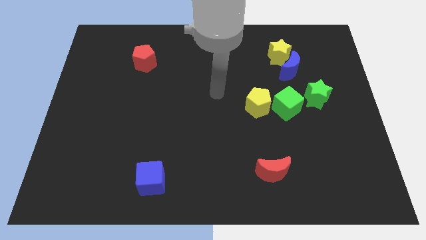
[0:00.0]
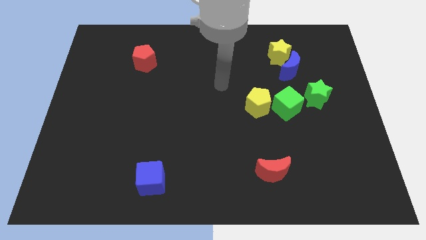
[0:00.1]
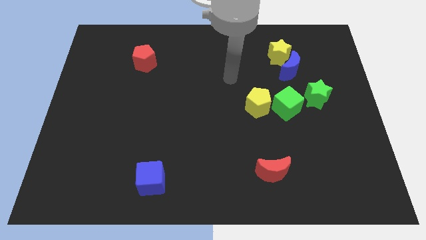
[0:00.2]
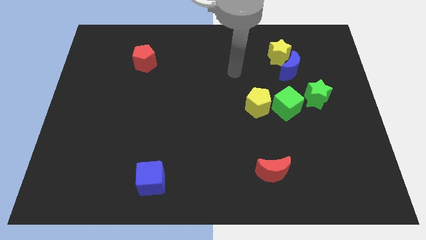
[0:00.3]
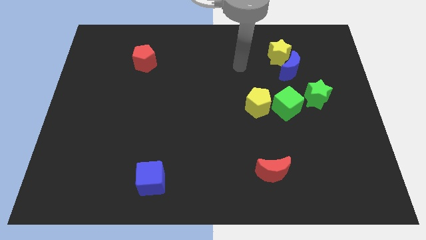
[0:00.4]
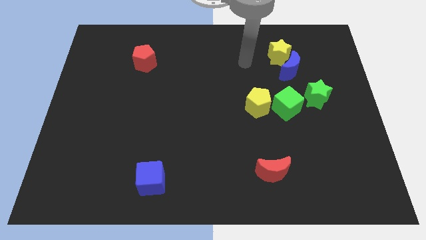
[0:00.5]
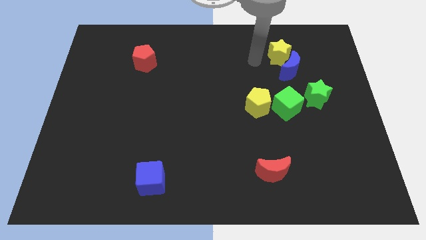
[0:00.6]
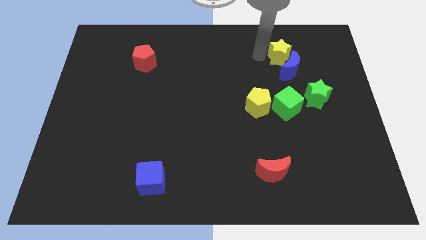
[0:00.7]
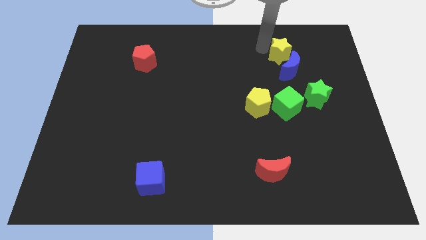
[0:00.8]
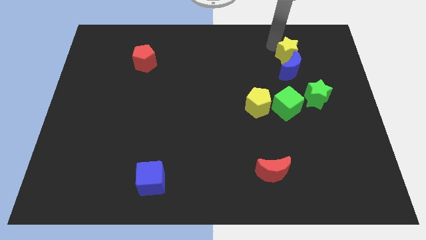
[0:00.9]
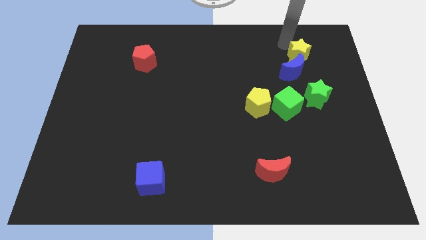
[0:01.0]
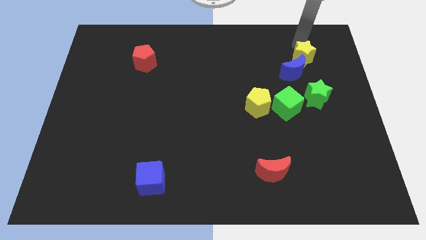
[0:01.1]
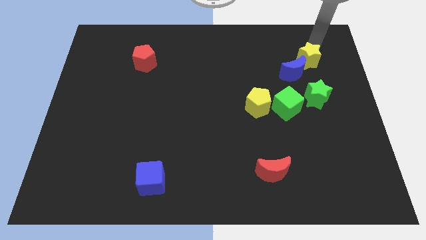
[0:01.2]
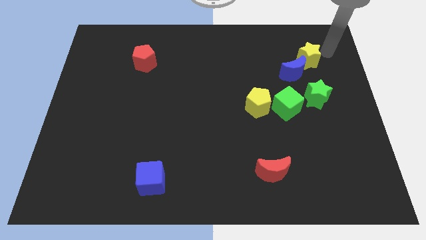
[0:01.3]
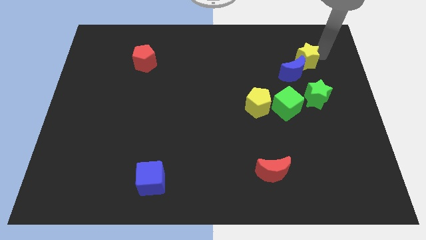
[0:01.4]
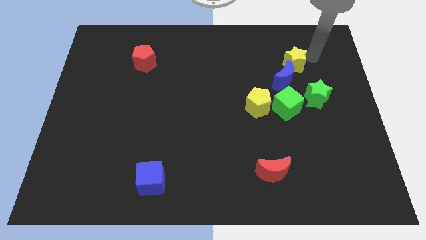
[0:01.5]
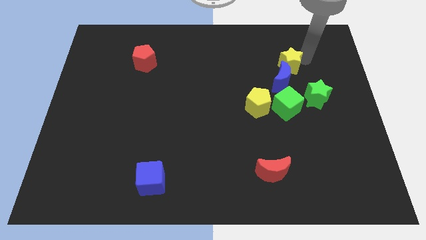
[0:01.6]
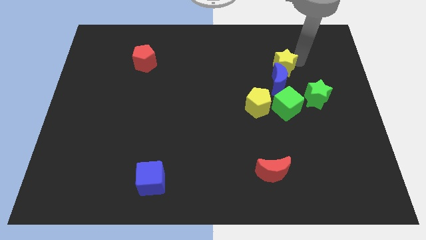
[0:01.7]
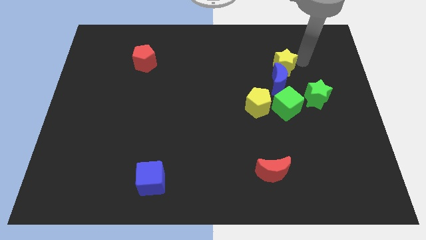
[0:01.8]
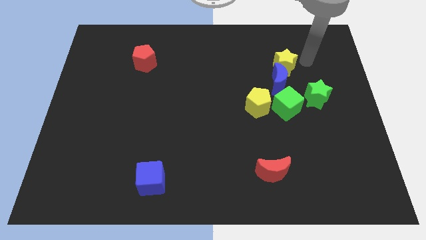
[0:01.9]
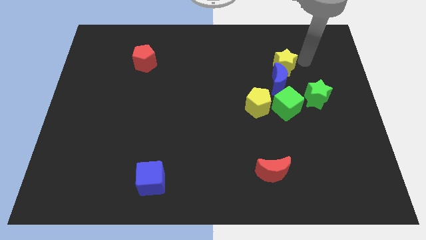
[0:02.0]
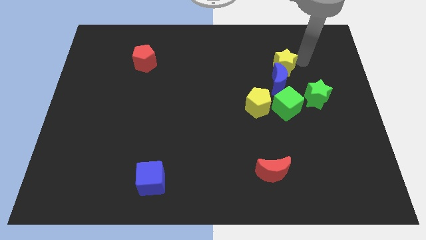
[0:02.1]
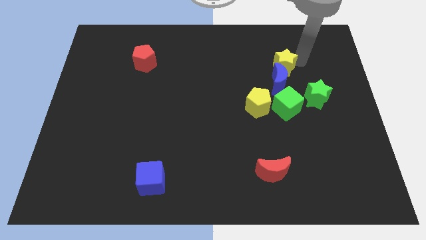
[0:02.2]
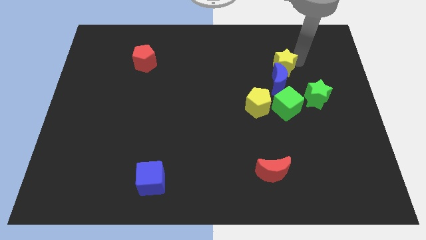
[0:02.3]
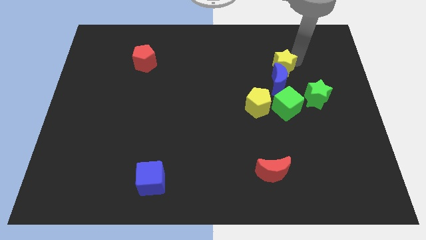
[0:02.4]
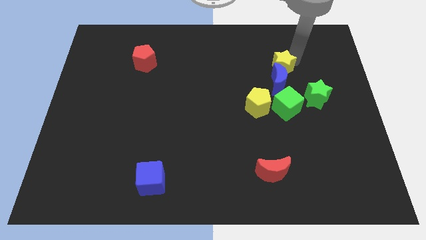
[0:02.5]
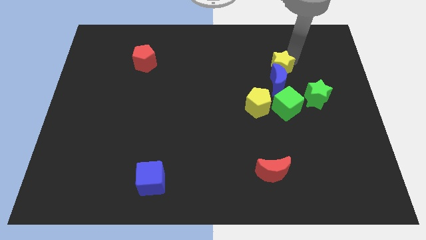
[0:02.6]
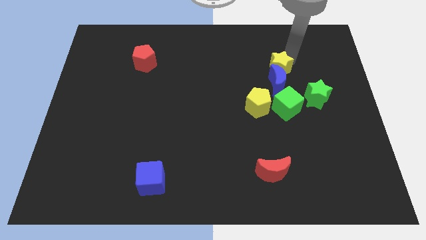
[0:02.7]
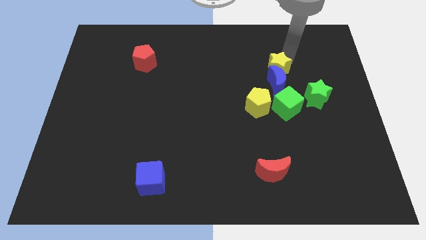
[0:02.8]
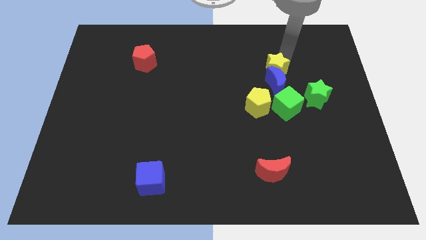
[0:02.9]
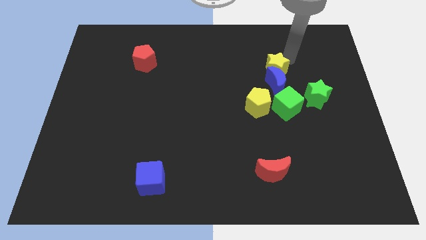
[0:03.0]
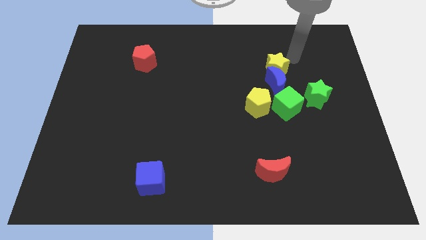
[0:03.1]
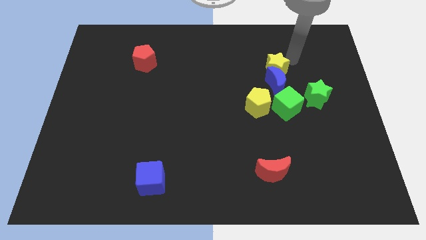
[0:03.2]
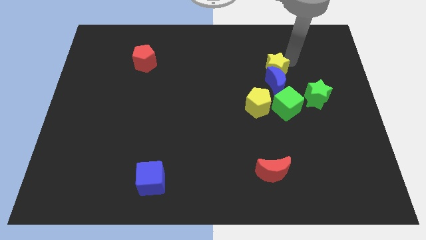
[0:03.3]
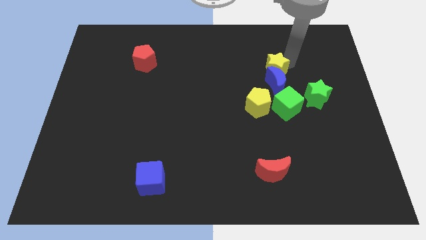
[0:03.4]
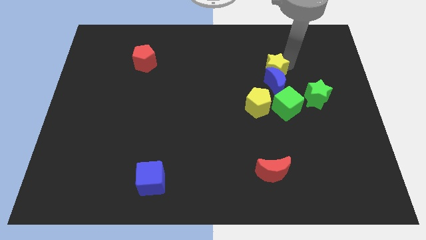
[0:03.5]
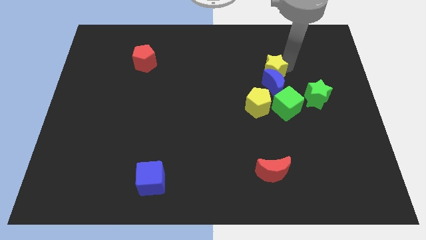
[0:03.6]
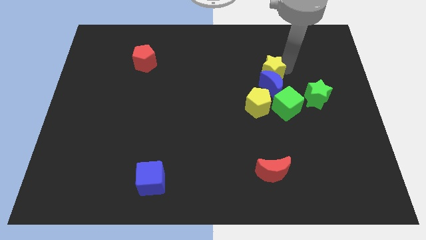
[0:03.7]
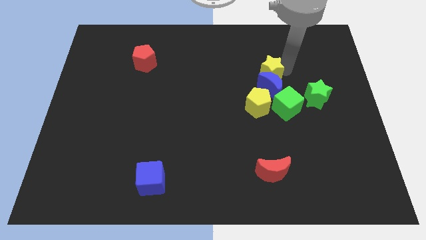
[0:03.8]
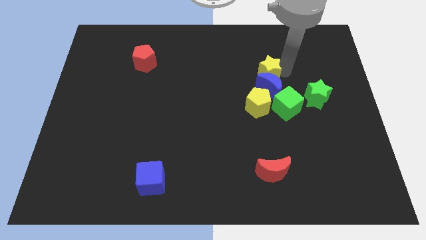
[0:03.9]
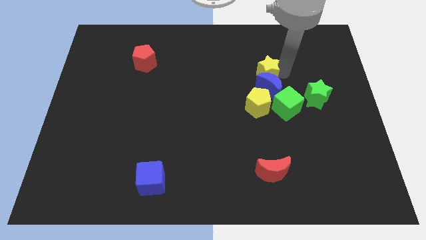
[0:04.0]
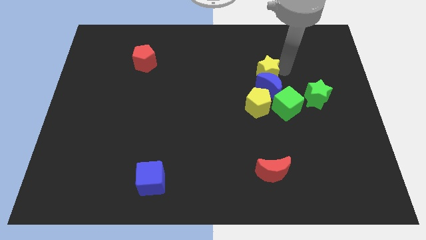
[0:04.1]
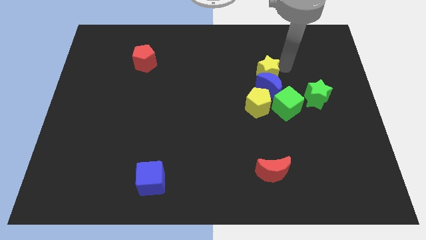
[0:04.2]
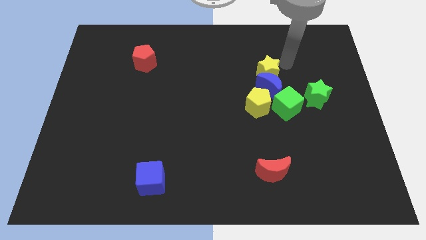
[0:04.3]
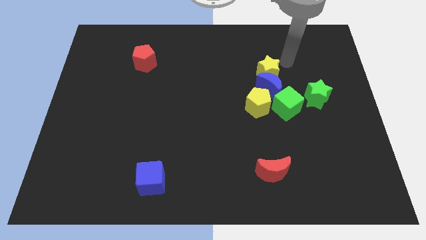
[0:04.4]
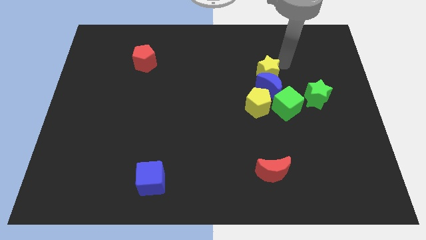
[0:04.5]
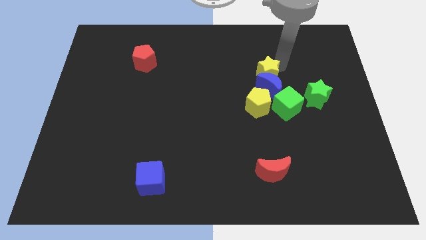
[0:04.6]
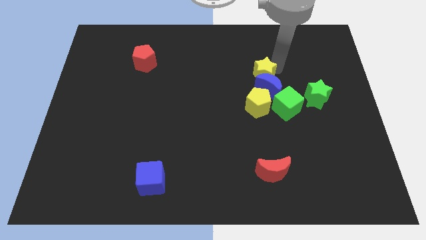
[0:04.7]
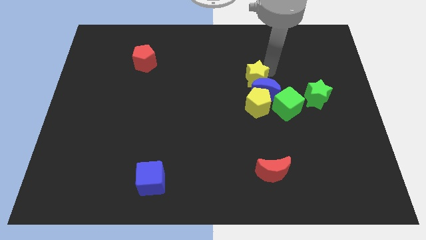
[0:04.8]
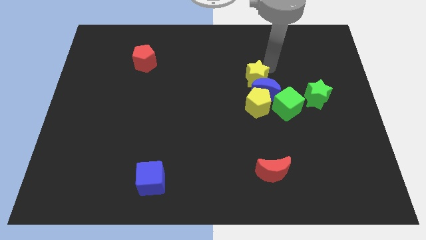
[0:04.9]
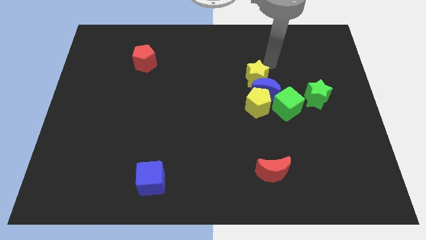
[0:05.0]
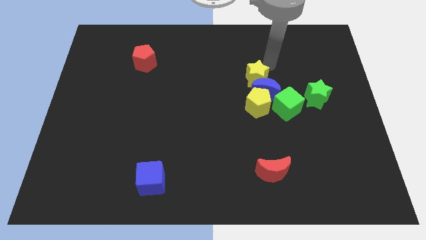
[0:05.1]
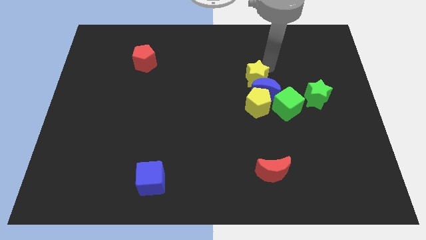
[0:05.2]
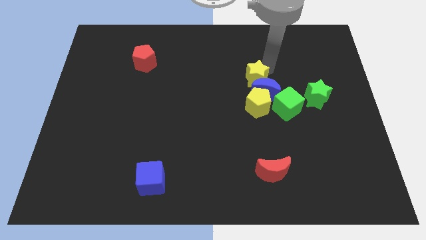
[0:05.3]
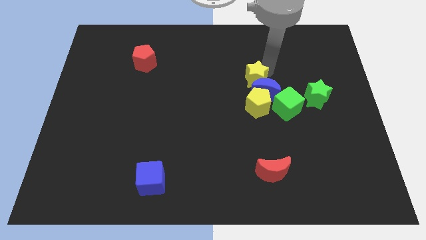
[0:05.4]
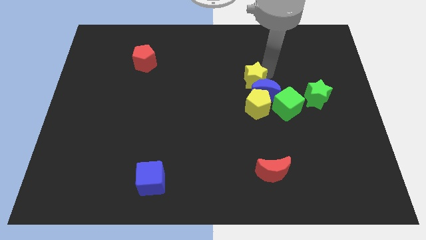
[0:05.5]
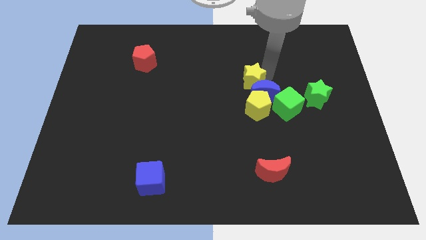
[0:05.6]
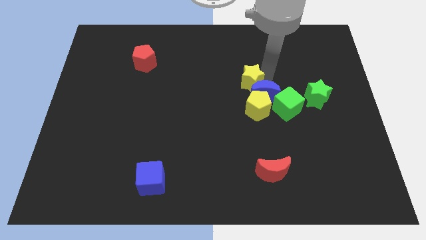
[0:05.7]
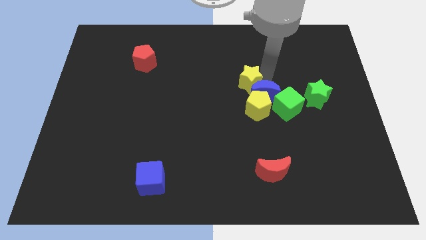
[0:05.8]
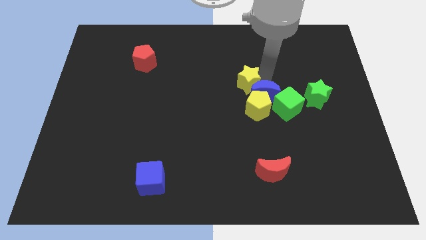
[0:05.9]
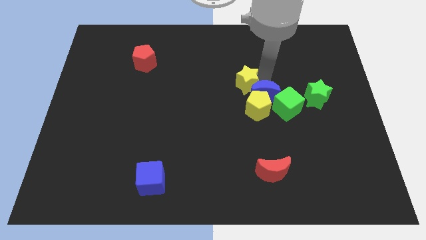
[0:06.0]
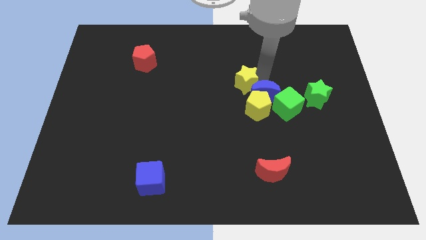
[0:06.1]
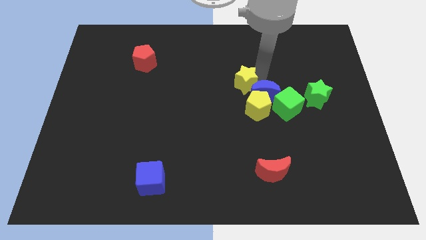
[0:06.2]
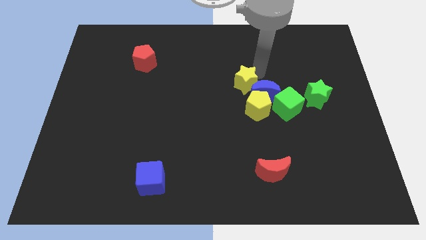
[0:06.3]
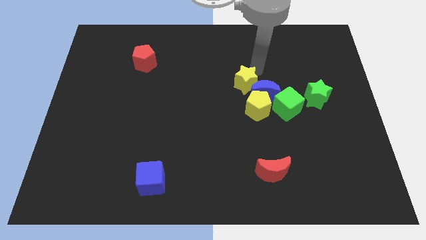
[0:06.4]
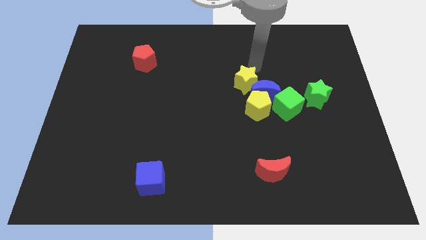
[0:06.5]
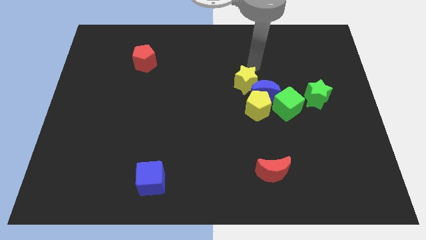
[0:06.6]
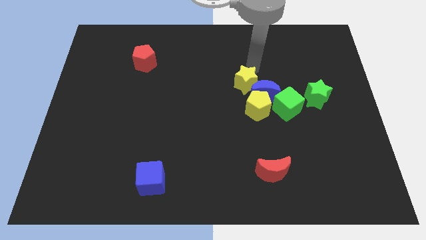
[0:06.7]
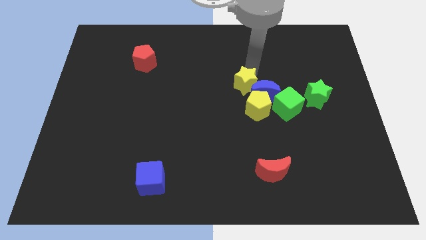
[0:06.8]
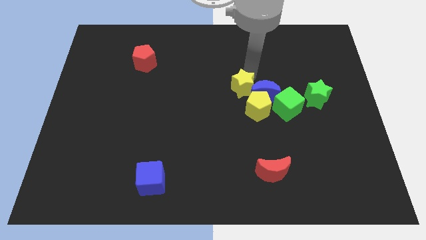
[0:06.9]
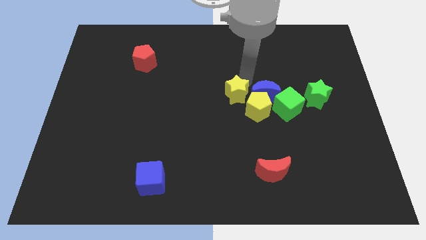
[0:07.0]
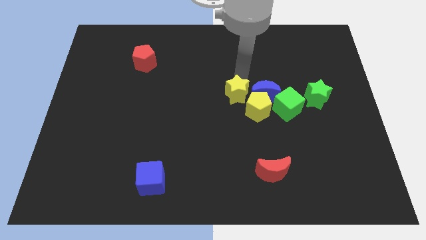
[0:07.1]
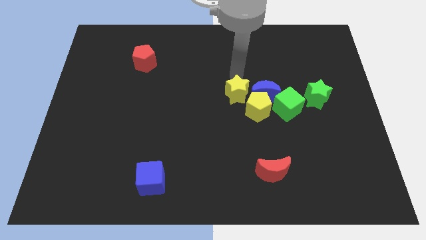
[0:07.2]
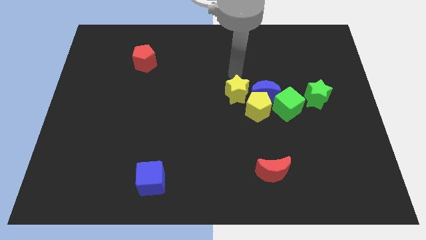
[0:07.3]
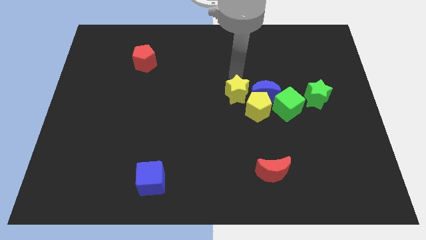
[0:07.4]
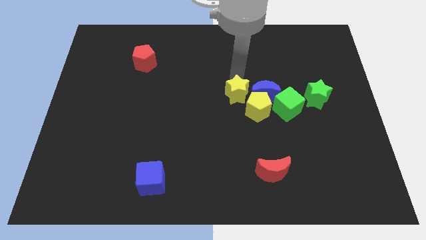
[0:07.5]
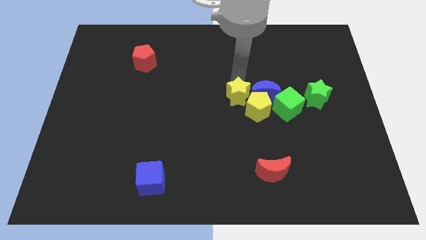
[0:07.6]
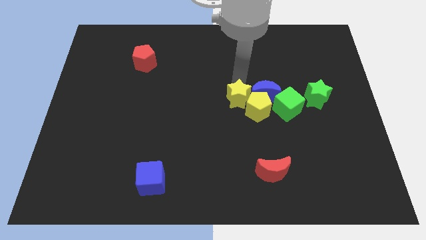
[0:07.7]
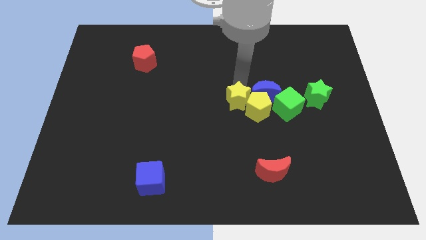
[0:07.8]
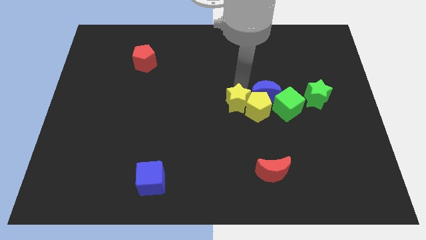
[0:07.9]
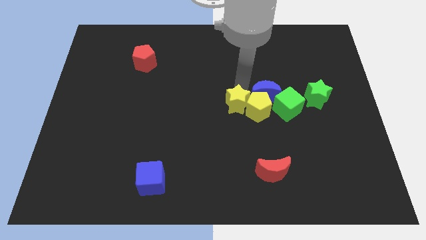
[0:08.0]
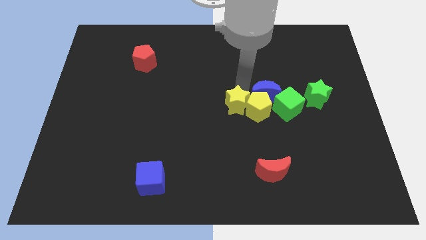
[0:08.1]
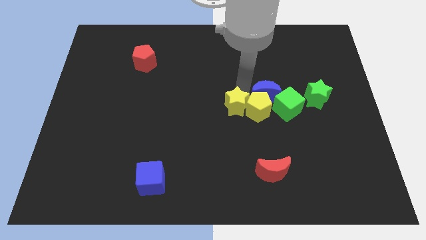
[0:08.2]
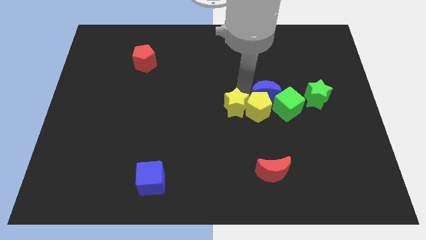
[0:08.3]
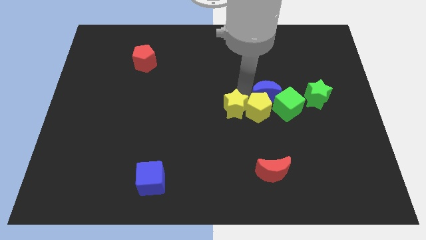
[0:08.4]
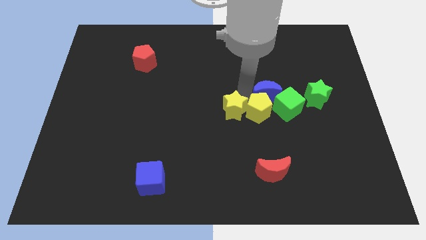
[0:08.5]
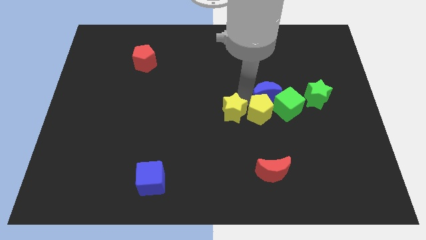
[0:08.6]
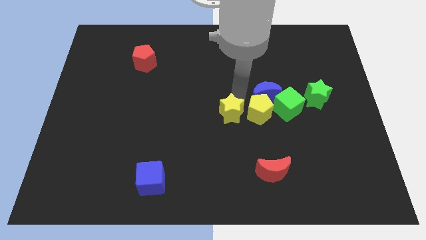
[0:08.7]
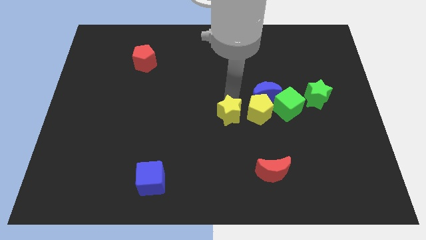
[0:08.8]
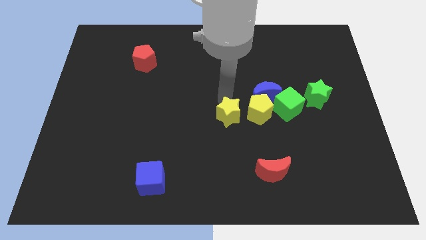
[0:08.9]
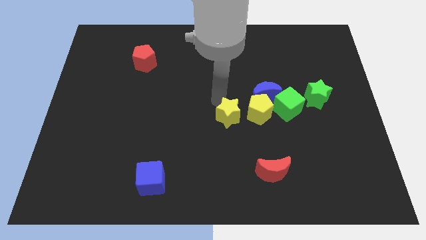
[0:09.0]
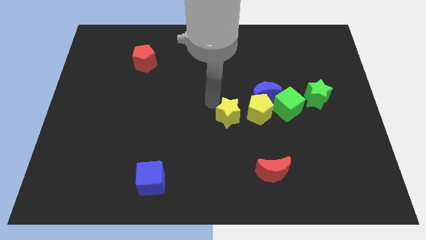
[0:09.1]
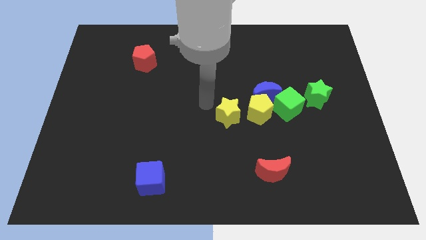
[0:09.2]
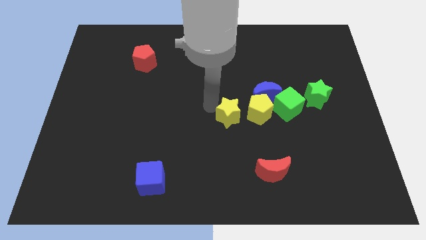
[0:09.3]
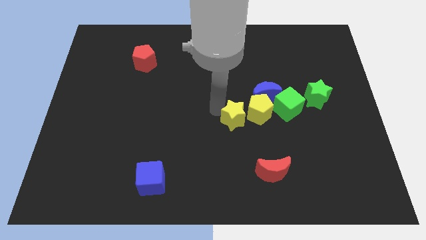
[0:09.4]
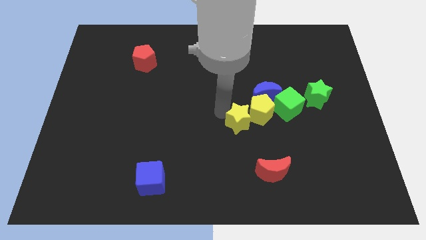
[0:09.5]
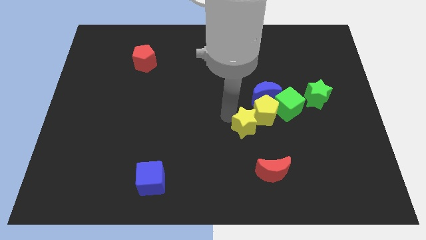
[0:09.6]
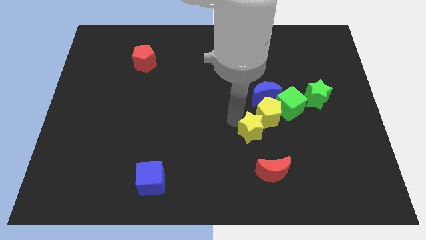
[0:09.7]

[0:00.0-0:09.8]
slide the yellow star down
